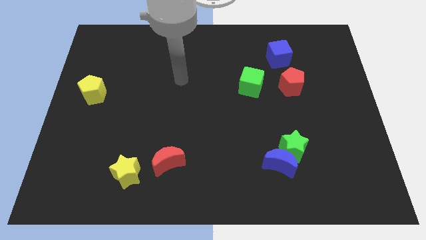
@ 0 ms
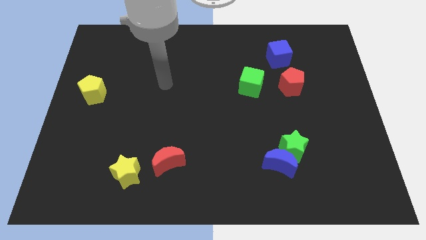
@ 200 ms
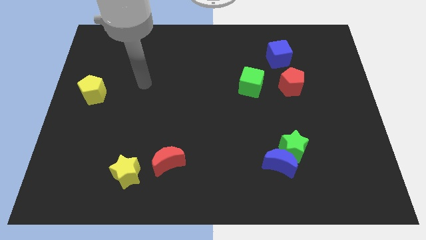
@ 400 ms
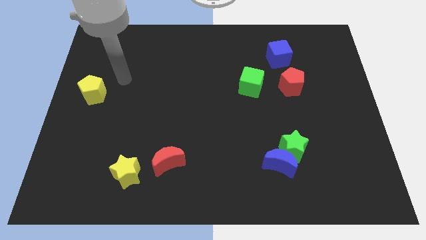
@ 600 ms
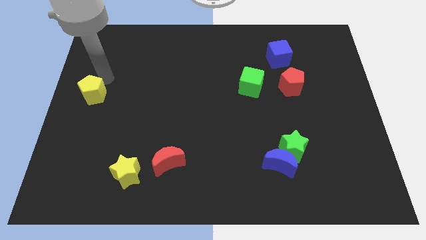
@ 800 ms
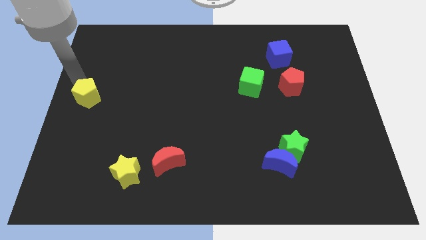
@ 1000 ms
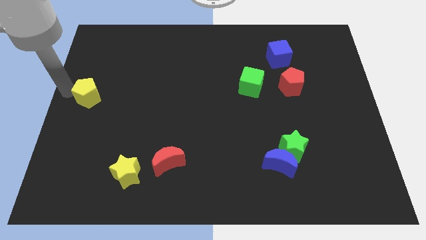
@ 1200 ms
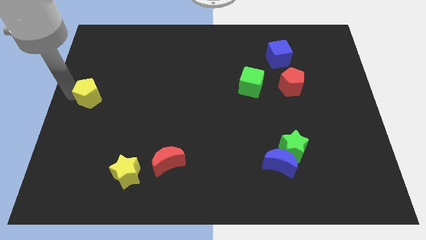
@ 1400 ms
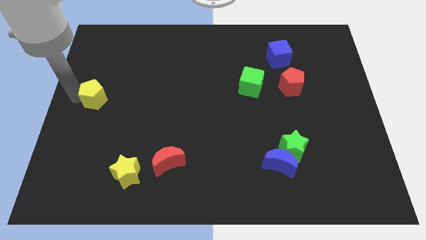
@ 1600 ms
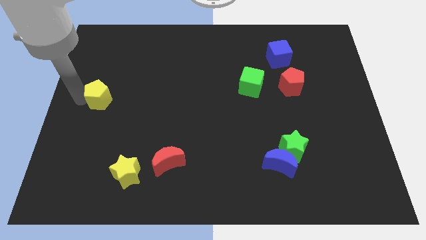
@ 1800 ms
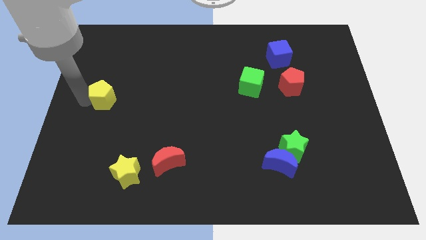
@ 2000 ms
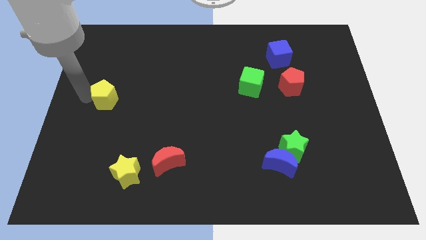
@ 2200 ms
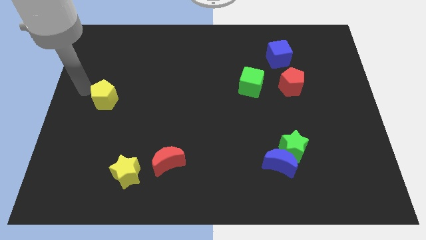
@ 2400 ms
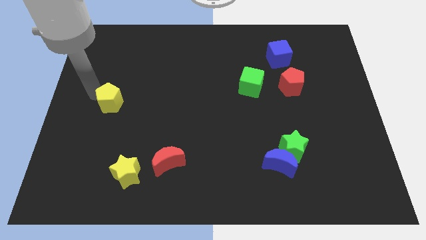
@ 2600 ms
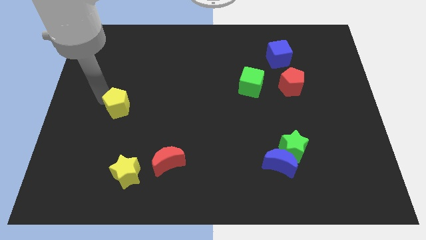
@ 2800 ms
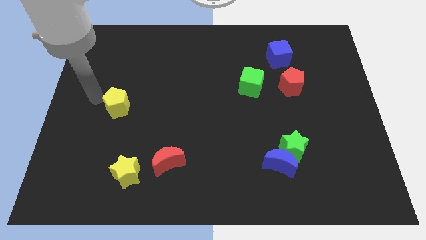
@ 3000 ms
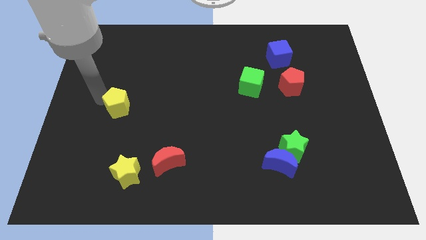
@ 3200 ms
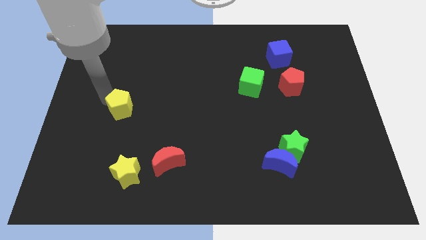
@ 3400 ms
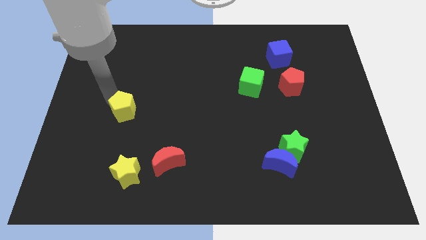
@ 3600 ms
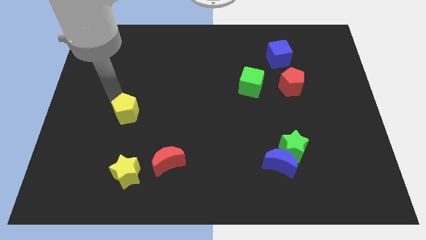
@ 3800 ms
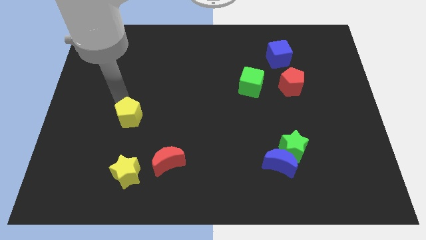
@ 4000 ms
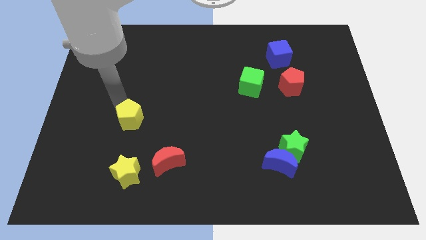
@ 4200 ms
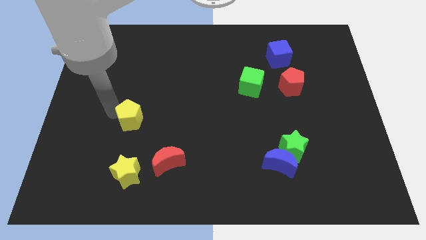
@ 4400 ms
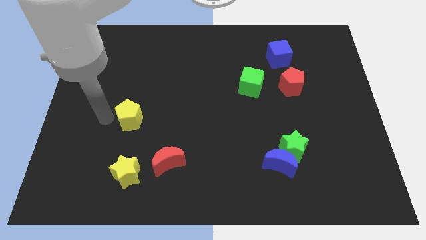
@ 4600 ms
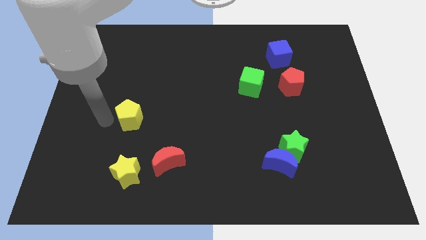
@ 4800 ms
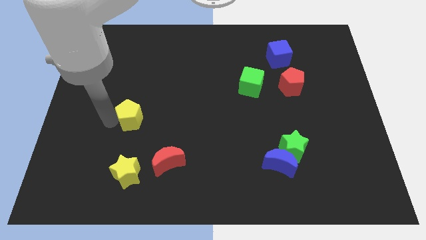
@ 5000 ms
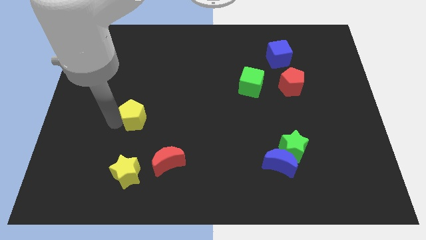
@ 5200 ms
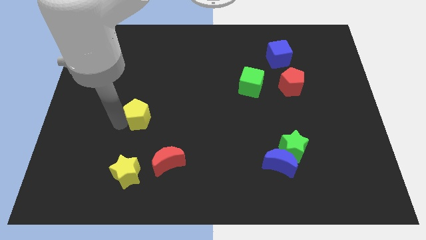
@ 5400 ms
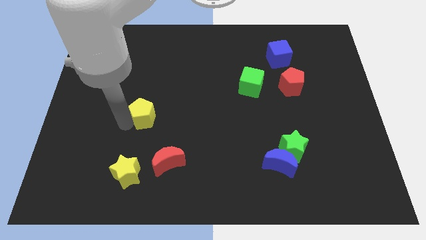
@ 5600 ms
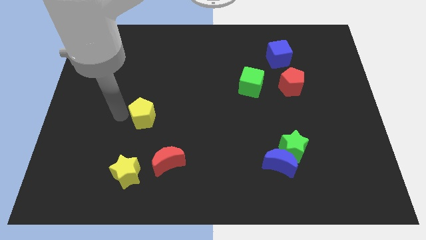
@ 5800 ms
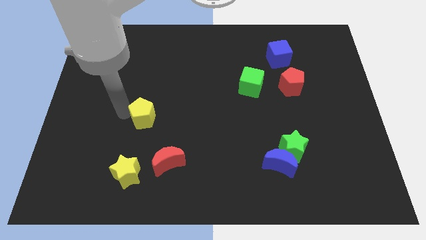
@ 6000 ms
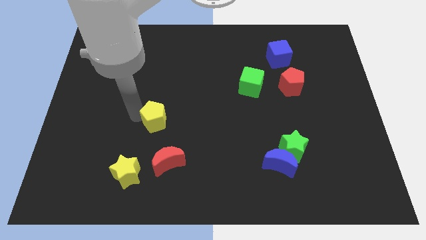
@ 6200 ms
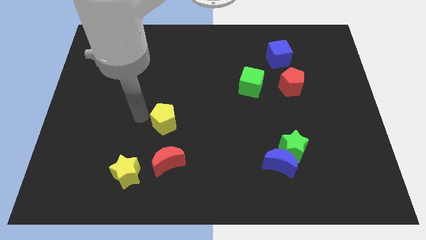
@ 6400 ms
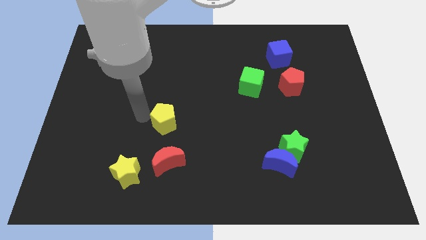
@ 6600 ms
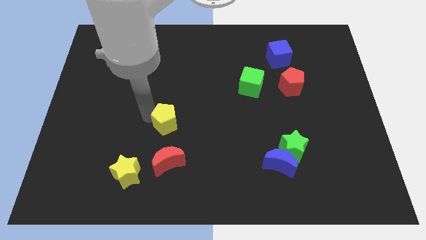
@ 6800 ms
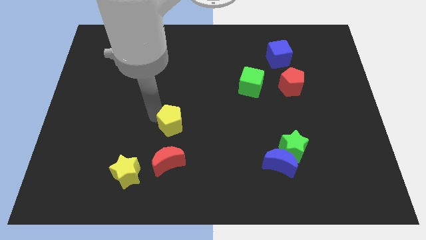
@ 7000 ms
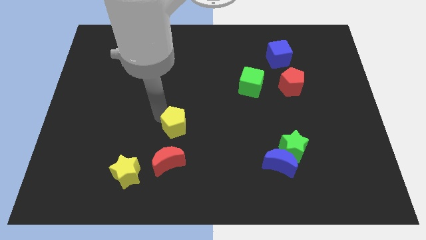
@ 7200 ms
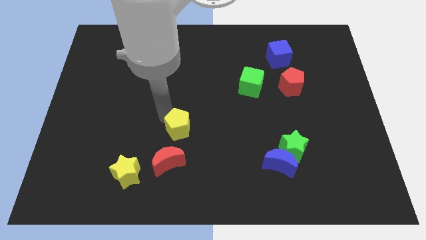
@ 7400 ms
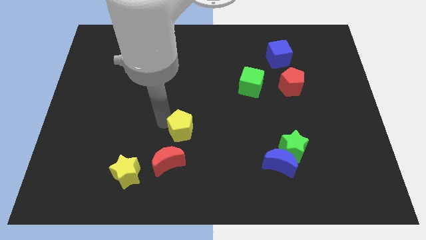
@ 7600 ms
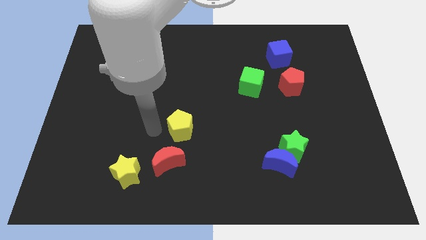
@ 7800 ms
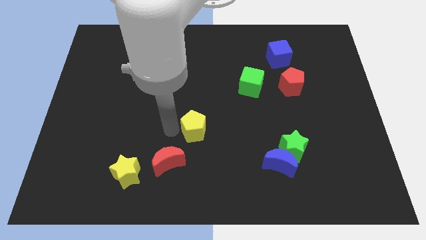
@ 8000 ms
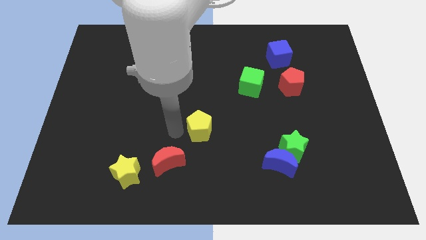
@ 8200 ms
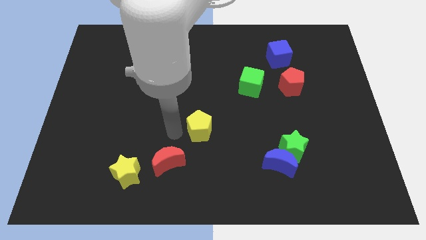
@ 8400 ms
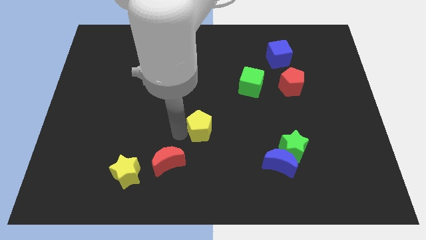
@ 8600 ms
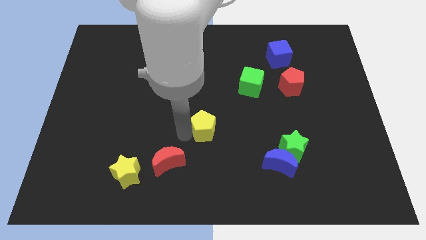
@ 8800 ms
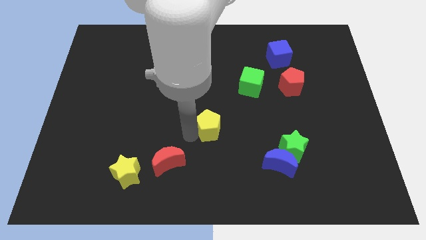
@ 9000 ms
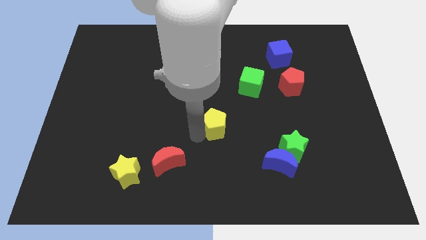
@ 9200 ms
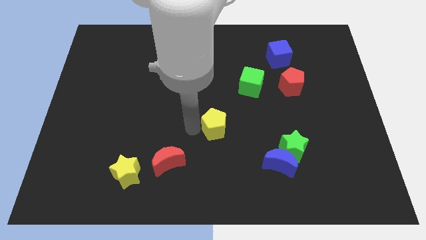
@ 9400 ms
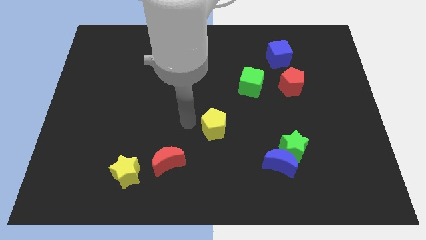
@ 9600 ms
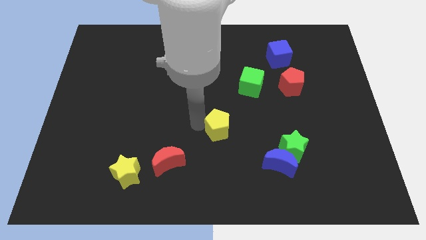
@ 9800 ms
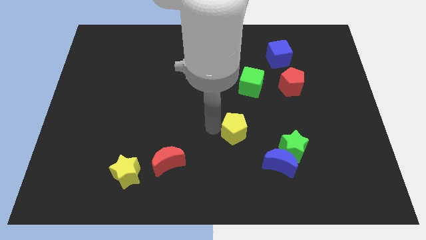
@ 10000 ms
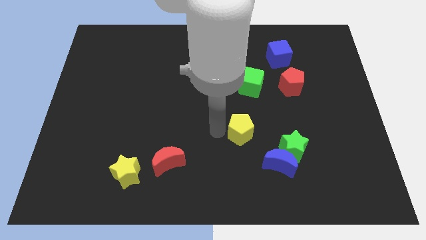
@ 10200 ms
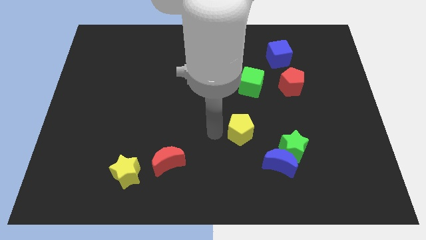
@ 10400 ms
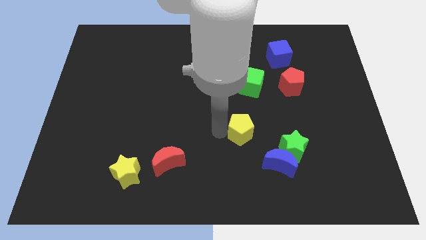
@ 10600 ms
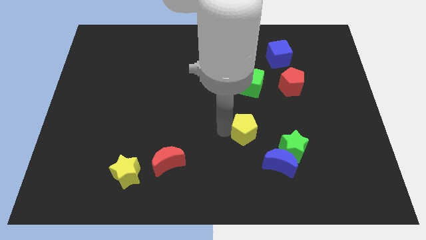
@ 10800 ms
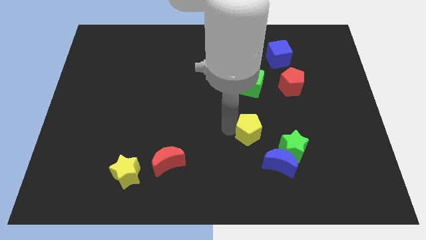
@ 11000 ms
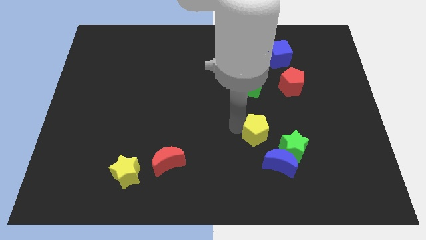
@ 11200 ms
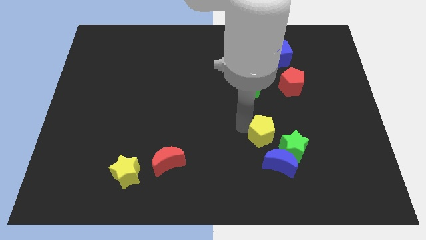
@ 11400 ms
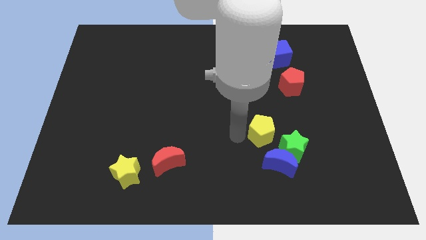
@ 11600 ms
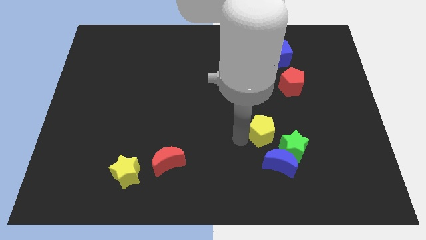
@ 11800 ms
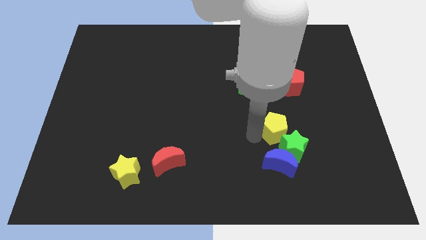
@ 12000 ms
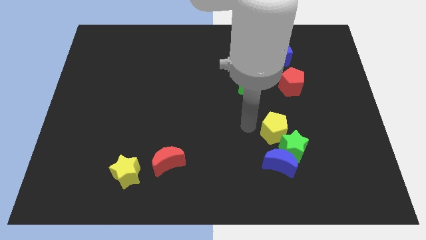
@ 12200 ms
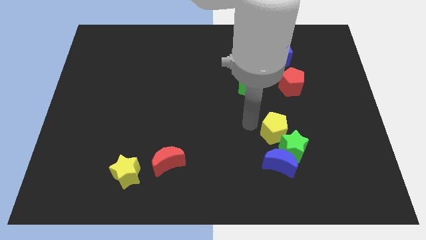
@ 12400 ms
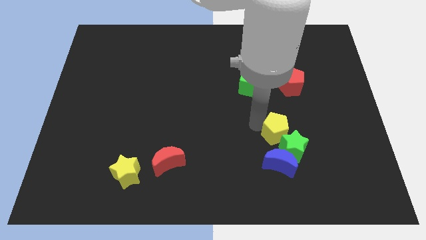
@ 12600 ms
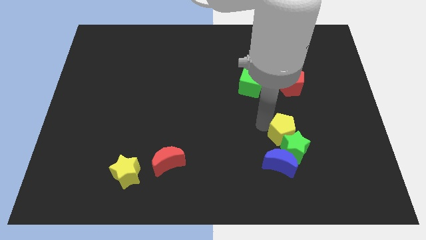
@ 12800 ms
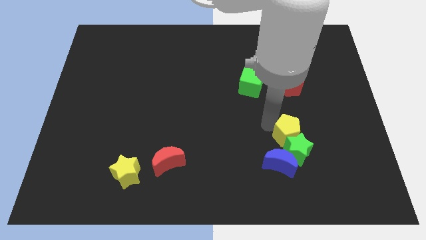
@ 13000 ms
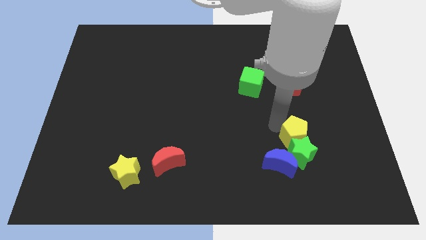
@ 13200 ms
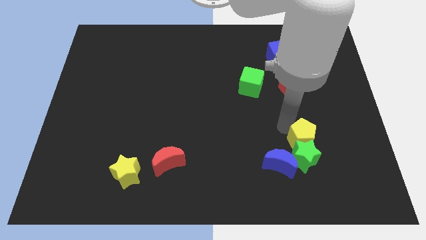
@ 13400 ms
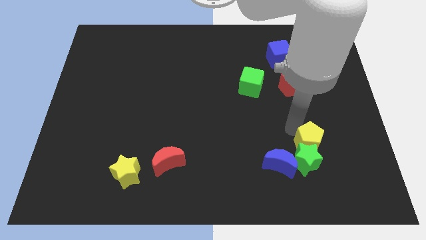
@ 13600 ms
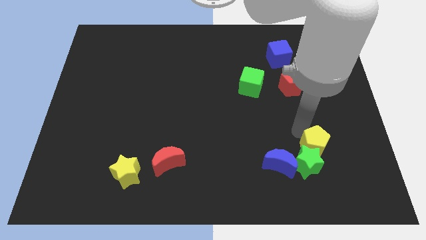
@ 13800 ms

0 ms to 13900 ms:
put the yellow pentagon just right of the blue moon
